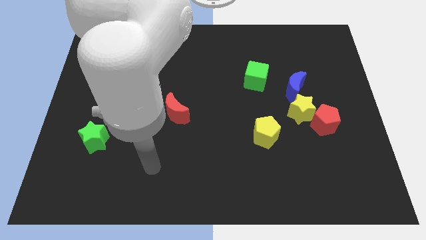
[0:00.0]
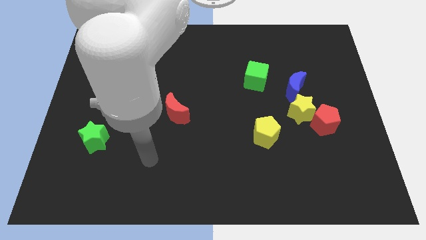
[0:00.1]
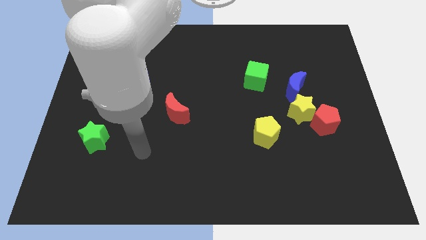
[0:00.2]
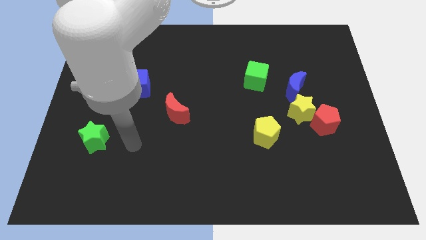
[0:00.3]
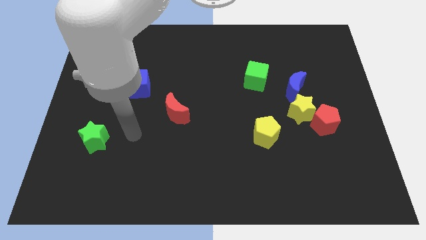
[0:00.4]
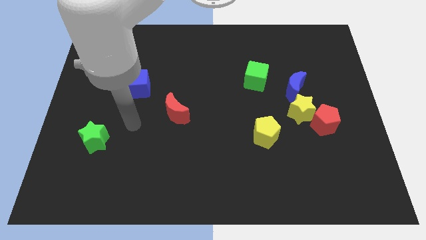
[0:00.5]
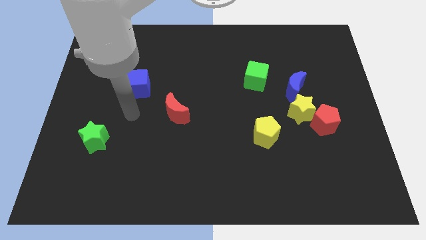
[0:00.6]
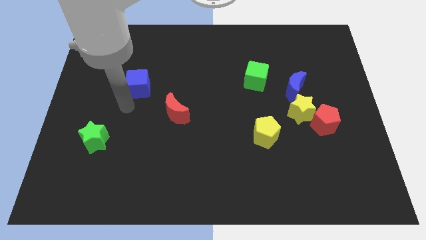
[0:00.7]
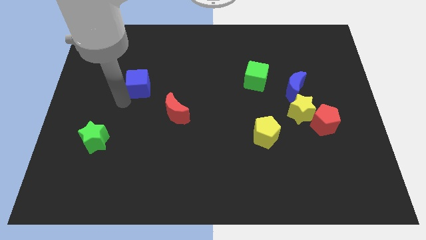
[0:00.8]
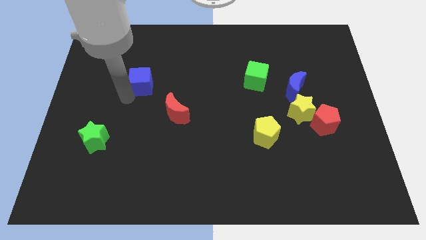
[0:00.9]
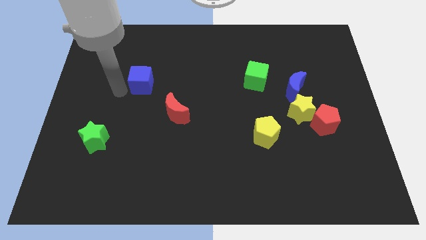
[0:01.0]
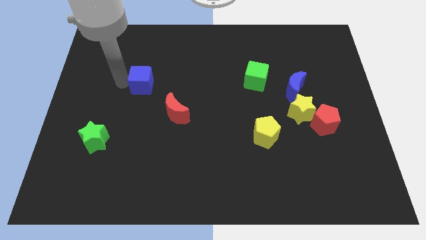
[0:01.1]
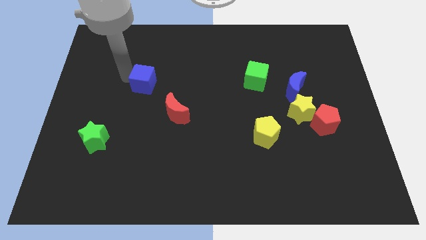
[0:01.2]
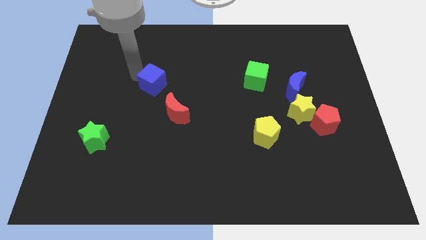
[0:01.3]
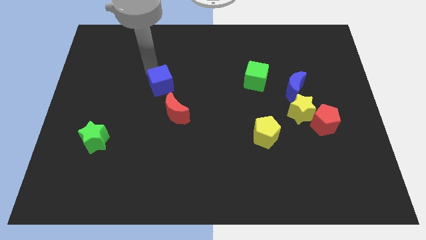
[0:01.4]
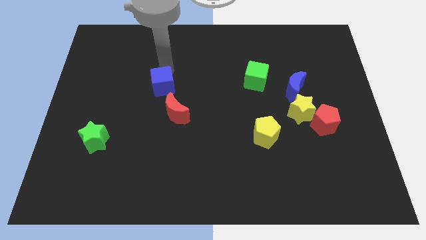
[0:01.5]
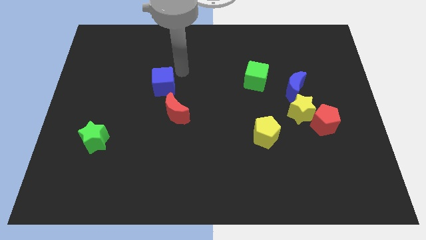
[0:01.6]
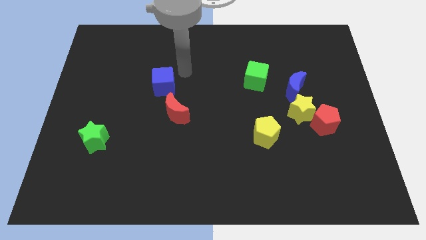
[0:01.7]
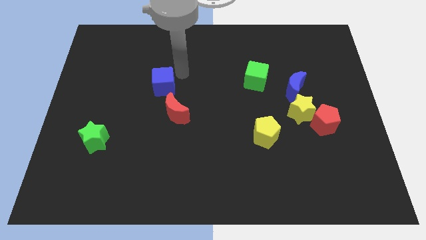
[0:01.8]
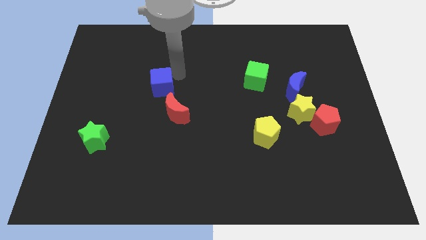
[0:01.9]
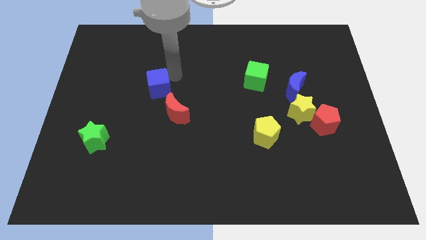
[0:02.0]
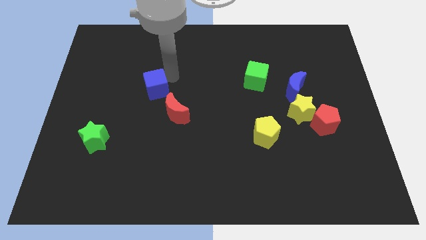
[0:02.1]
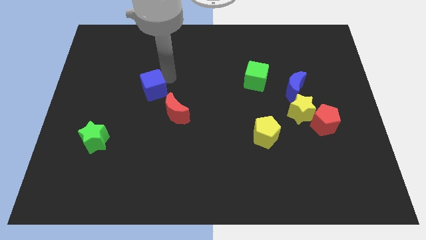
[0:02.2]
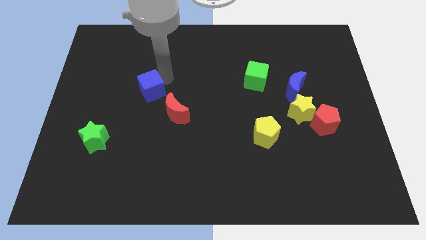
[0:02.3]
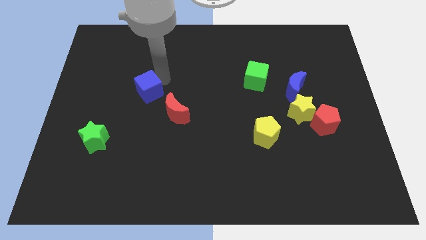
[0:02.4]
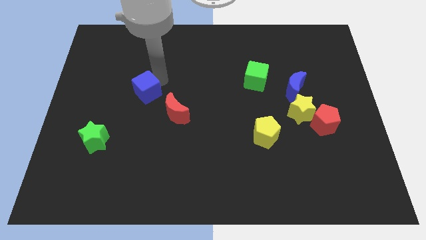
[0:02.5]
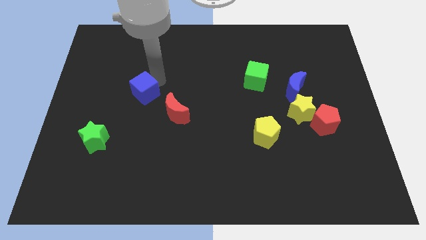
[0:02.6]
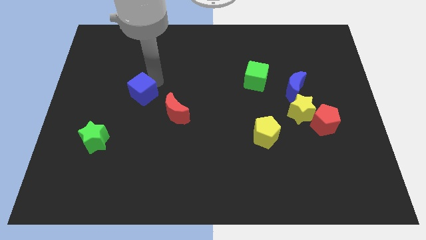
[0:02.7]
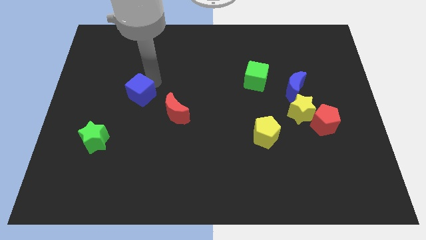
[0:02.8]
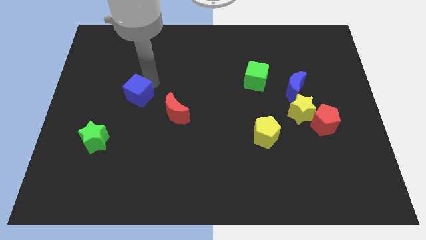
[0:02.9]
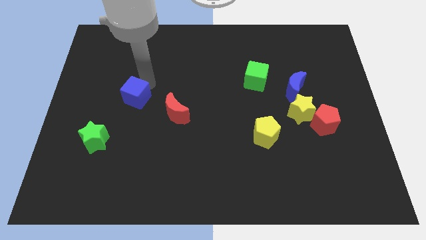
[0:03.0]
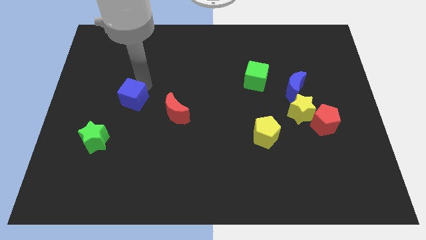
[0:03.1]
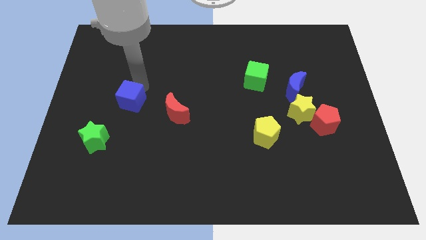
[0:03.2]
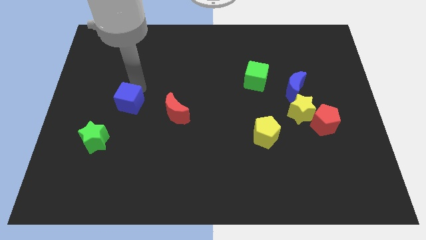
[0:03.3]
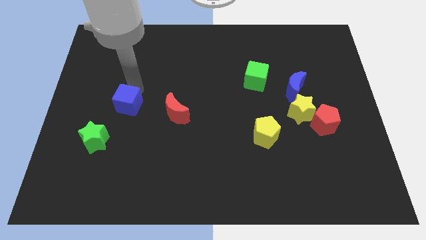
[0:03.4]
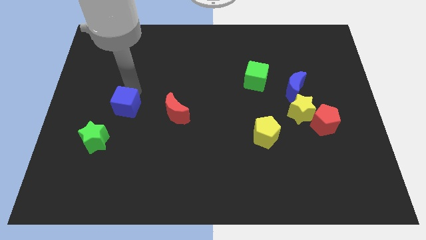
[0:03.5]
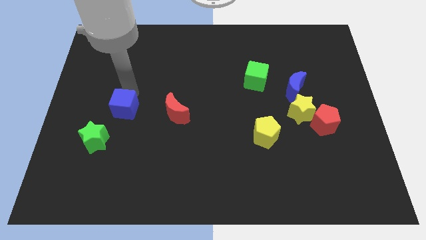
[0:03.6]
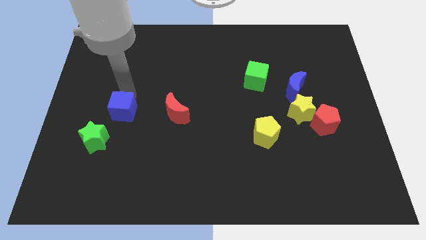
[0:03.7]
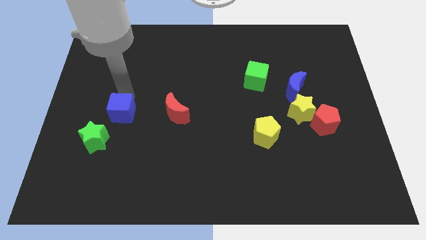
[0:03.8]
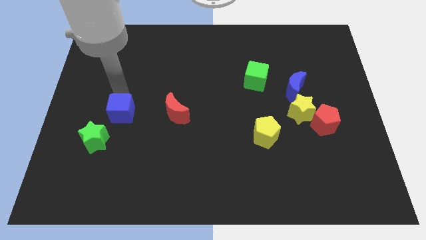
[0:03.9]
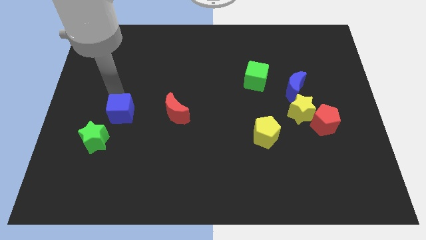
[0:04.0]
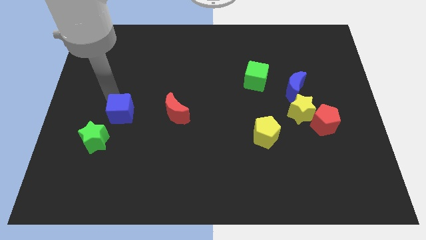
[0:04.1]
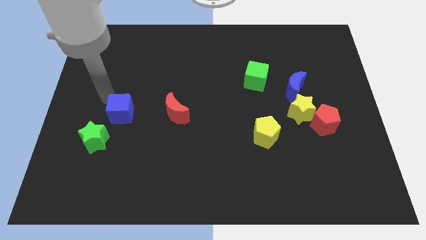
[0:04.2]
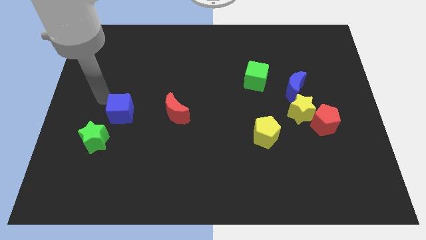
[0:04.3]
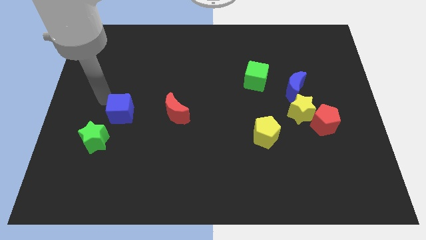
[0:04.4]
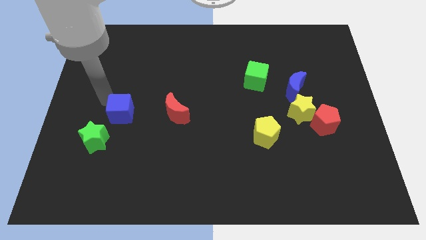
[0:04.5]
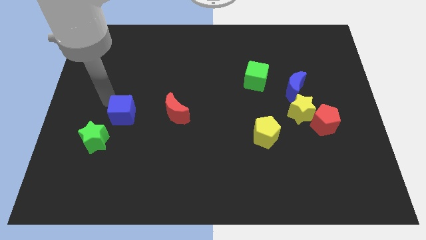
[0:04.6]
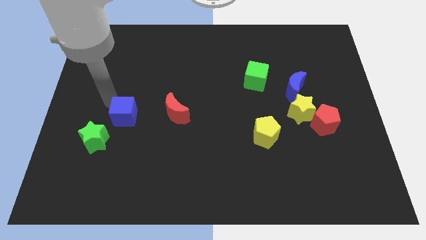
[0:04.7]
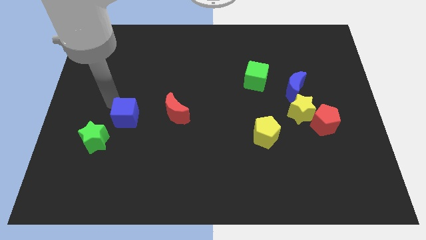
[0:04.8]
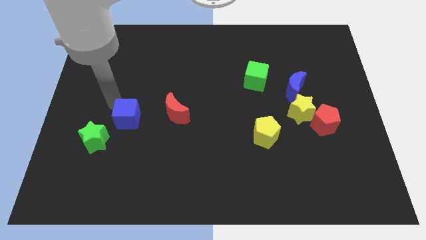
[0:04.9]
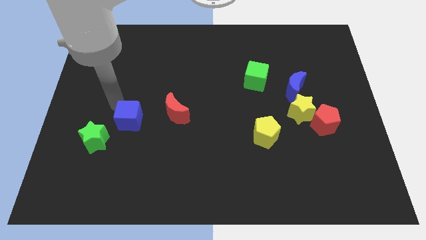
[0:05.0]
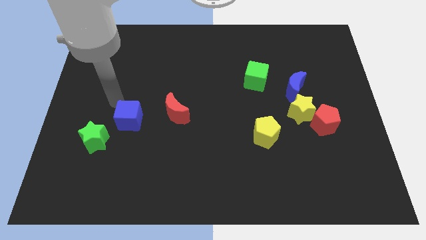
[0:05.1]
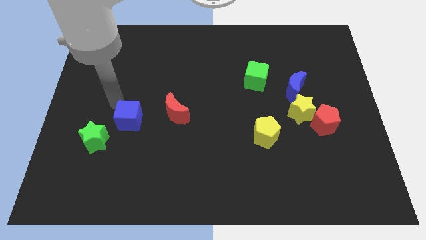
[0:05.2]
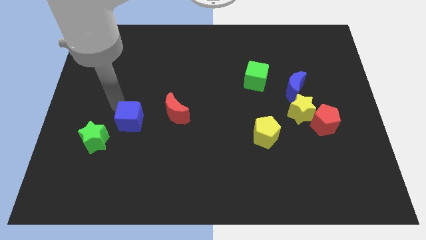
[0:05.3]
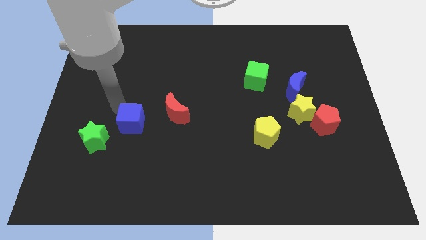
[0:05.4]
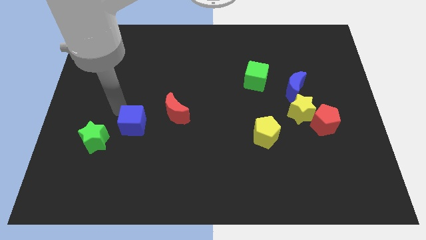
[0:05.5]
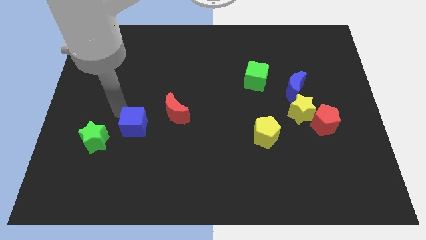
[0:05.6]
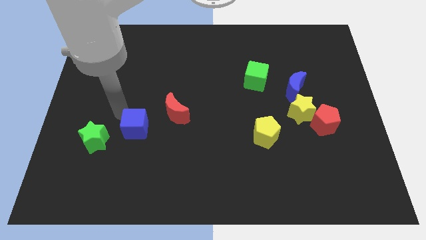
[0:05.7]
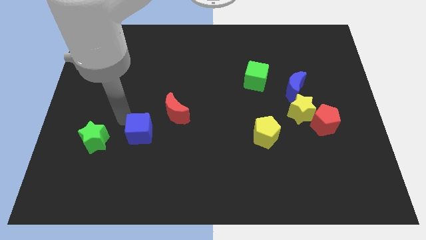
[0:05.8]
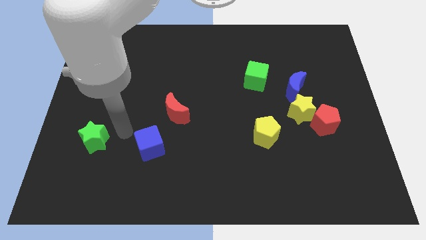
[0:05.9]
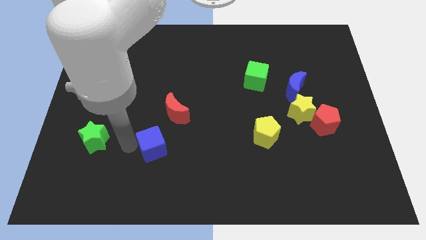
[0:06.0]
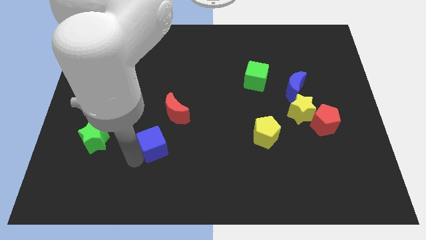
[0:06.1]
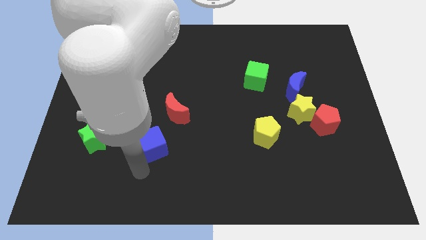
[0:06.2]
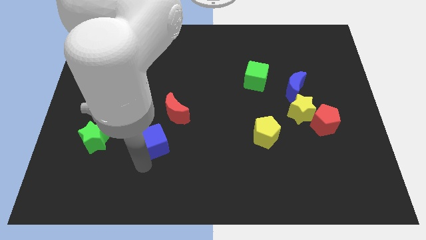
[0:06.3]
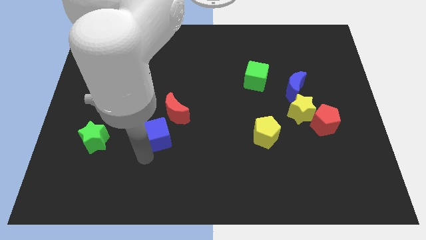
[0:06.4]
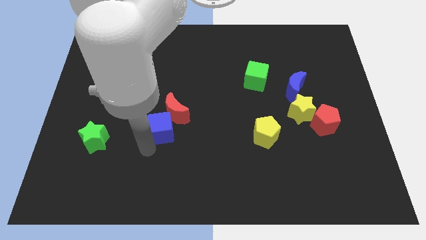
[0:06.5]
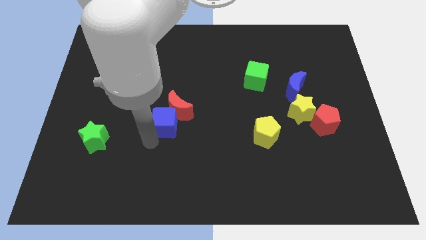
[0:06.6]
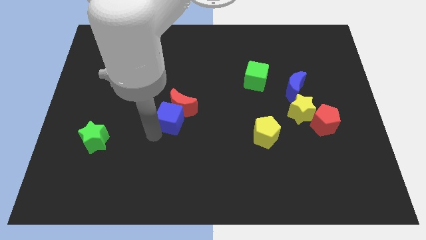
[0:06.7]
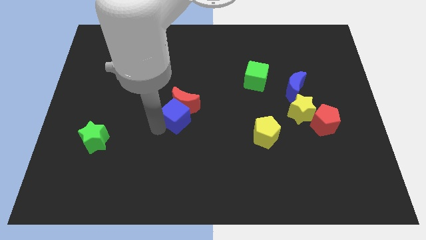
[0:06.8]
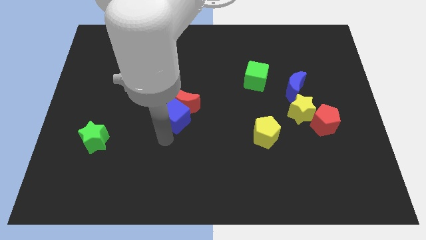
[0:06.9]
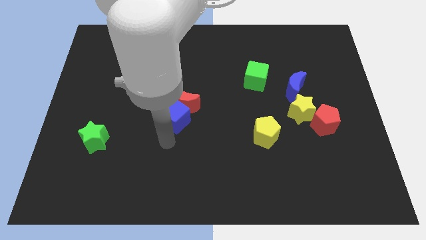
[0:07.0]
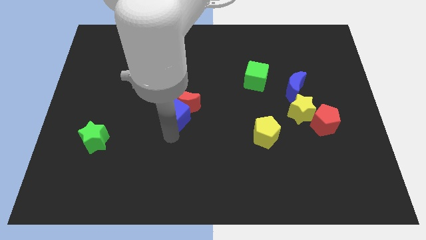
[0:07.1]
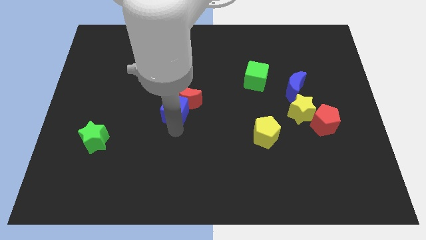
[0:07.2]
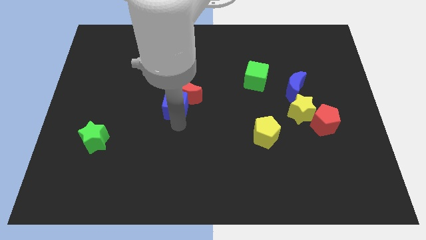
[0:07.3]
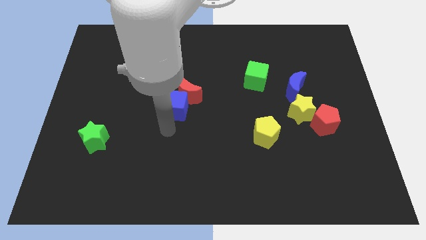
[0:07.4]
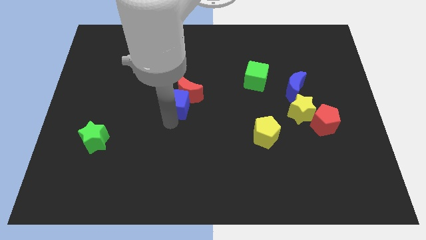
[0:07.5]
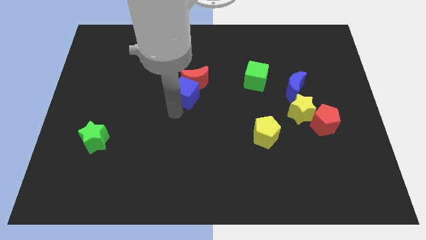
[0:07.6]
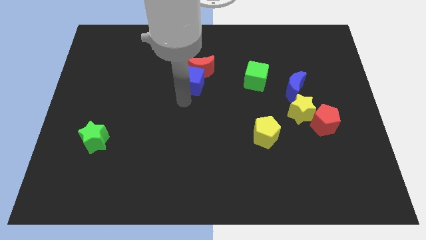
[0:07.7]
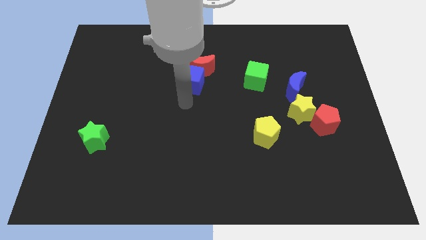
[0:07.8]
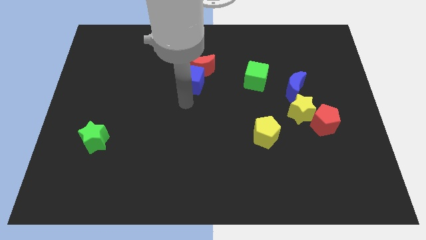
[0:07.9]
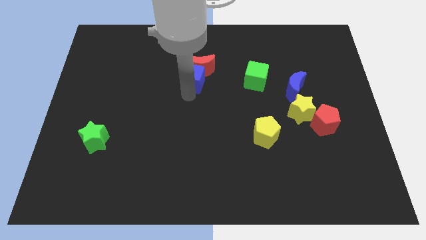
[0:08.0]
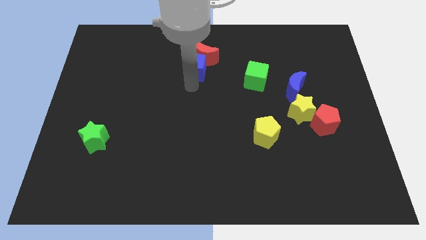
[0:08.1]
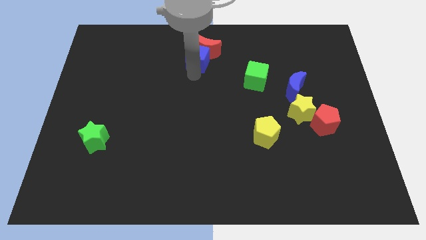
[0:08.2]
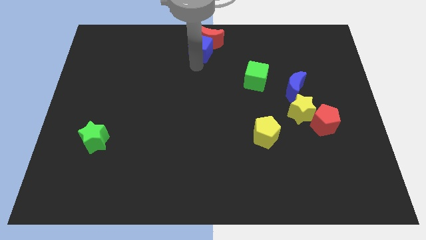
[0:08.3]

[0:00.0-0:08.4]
put the blue cube to the top side
